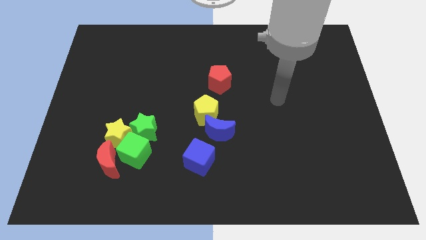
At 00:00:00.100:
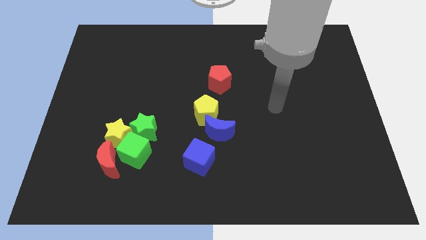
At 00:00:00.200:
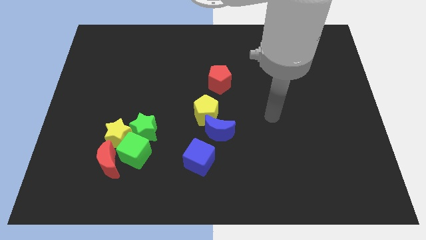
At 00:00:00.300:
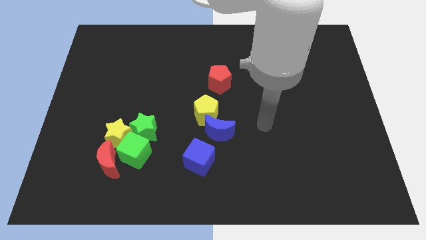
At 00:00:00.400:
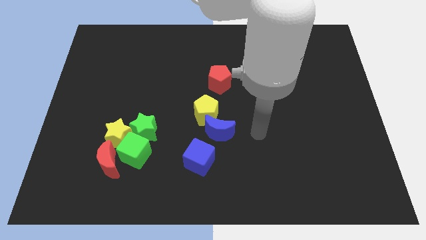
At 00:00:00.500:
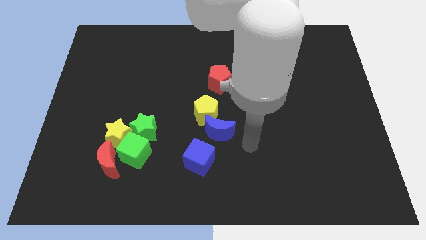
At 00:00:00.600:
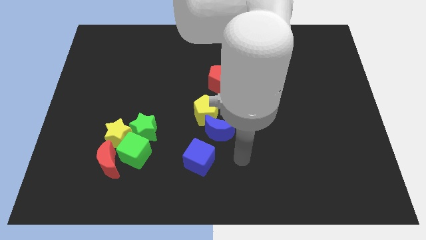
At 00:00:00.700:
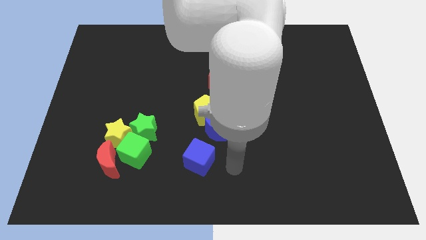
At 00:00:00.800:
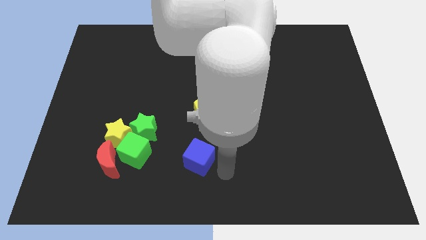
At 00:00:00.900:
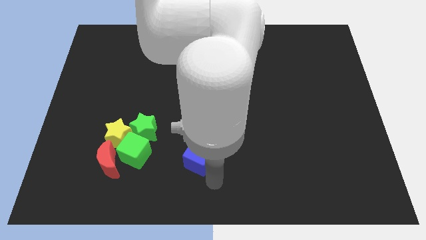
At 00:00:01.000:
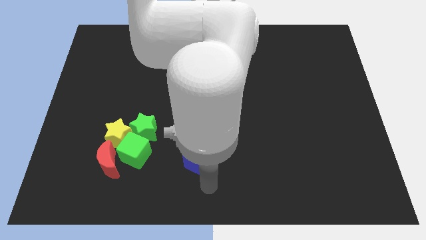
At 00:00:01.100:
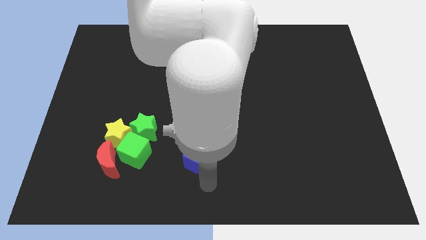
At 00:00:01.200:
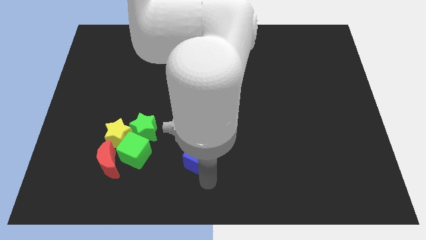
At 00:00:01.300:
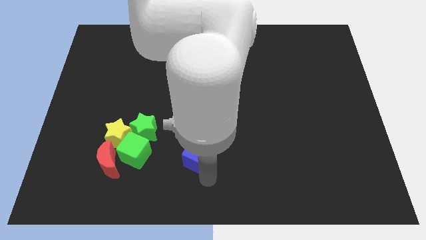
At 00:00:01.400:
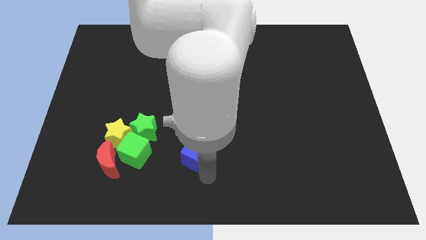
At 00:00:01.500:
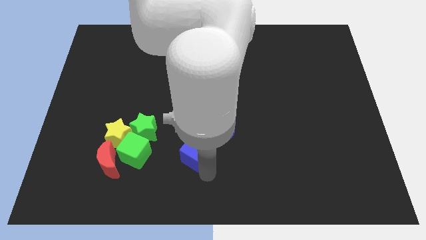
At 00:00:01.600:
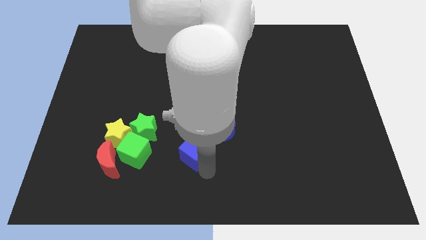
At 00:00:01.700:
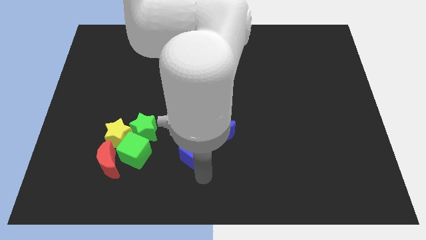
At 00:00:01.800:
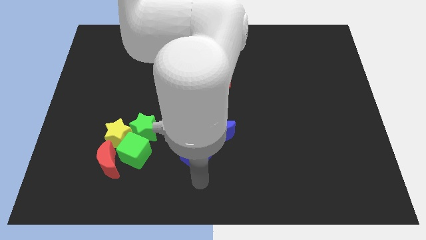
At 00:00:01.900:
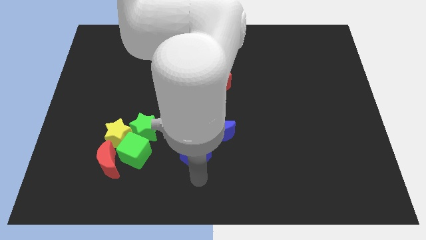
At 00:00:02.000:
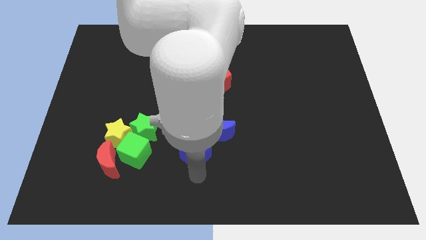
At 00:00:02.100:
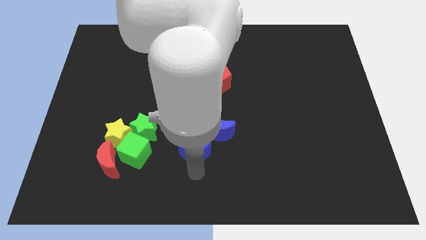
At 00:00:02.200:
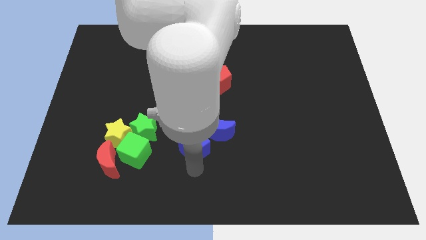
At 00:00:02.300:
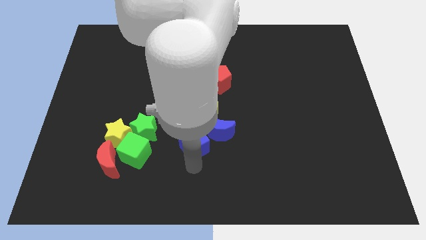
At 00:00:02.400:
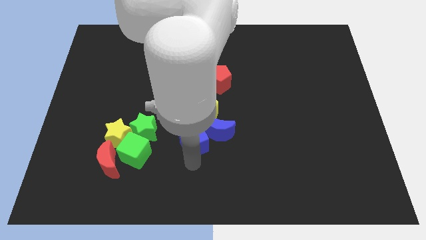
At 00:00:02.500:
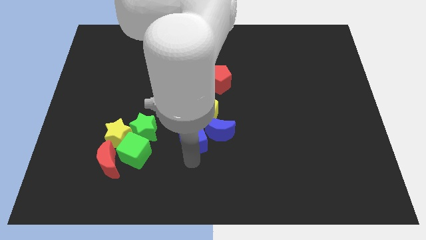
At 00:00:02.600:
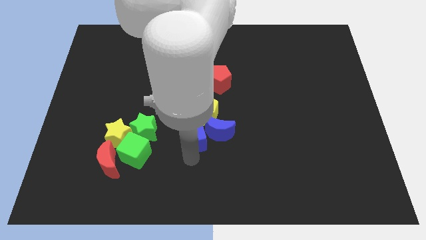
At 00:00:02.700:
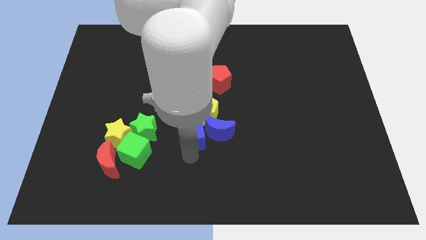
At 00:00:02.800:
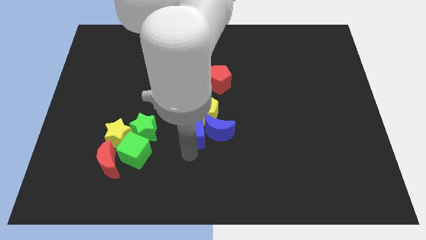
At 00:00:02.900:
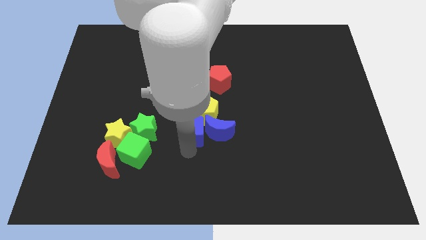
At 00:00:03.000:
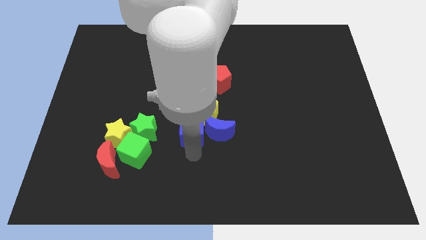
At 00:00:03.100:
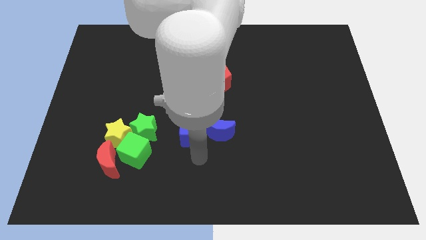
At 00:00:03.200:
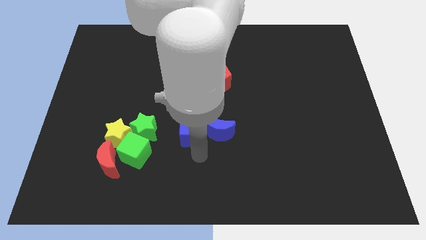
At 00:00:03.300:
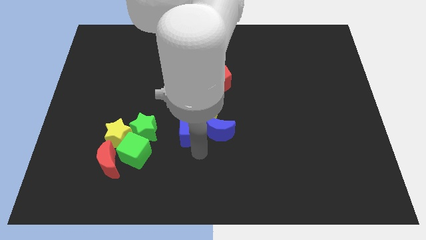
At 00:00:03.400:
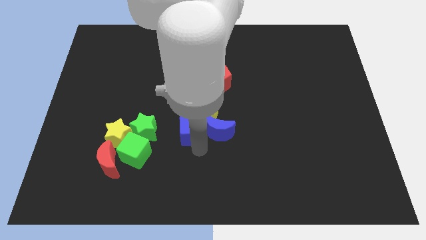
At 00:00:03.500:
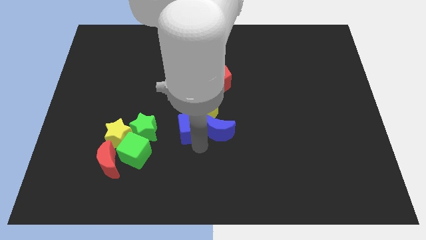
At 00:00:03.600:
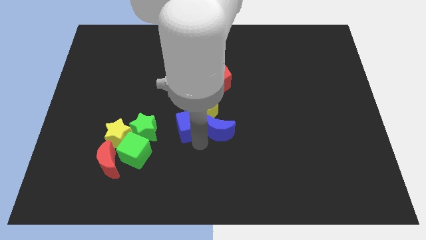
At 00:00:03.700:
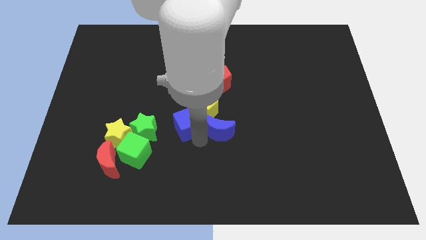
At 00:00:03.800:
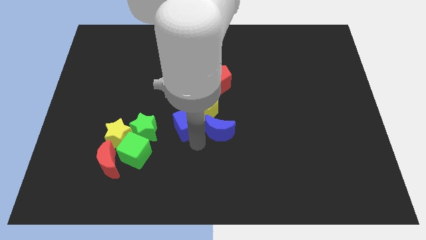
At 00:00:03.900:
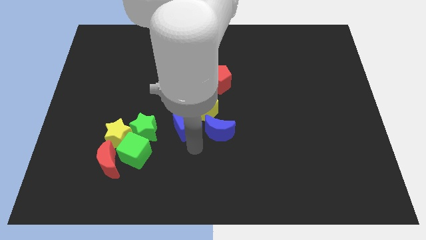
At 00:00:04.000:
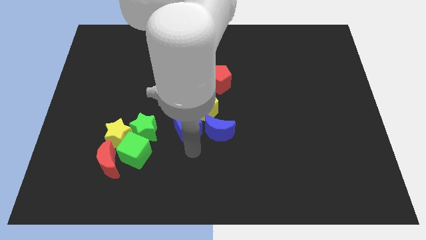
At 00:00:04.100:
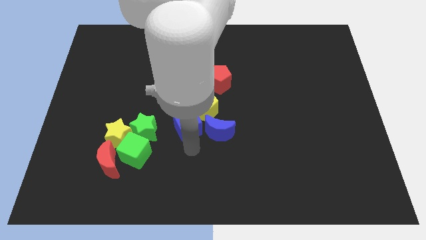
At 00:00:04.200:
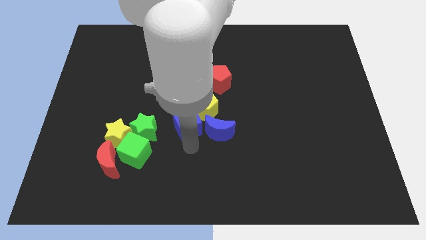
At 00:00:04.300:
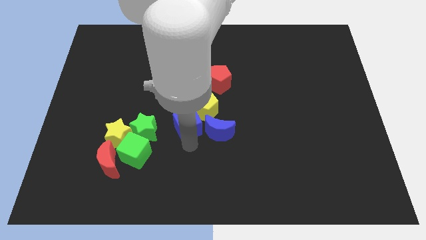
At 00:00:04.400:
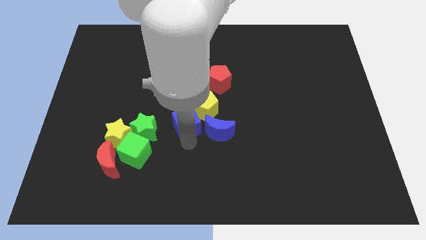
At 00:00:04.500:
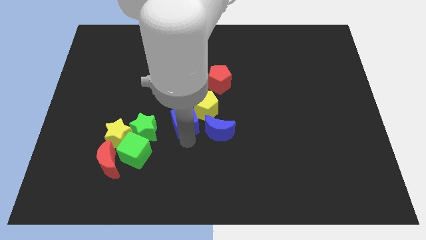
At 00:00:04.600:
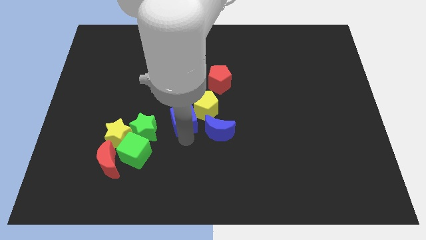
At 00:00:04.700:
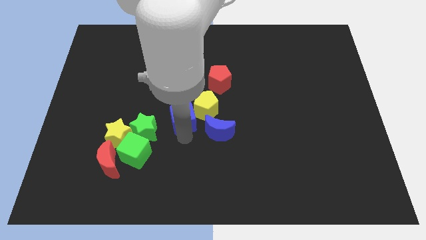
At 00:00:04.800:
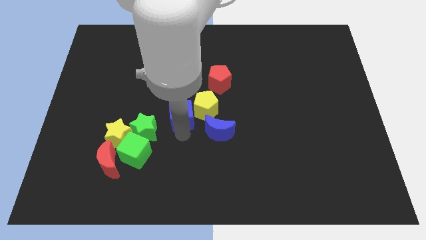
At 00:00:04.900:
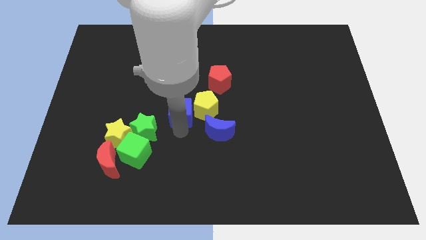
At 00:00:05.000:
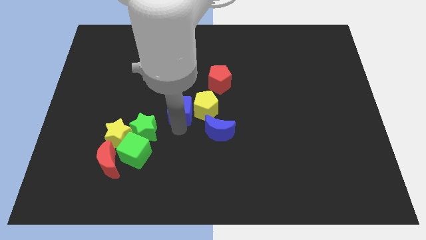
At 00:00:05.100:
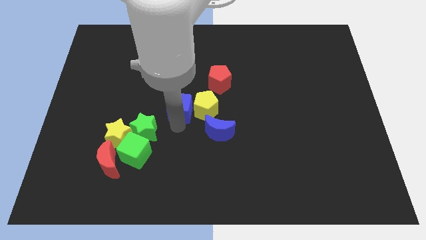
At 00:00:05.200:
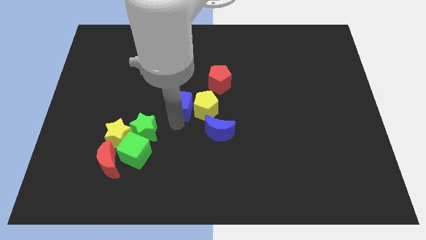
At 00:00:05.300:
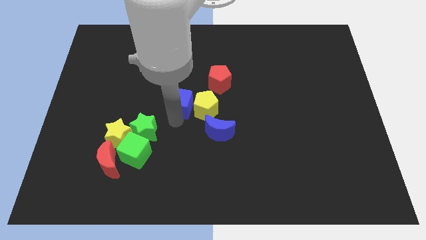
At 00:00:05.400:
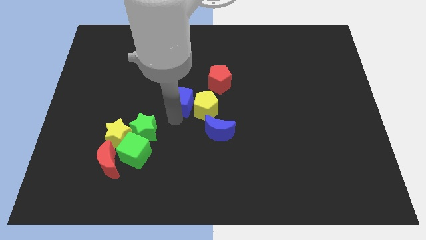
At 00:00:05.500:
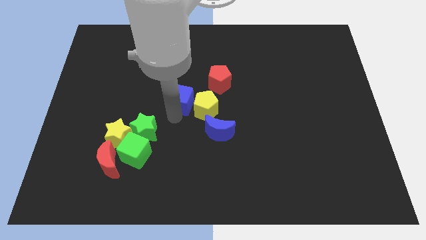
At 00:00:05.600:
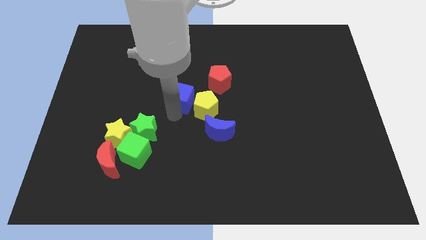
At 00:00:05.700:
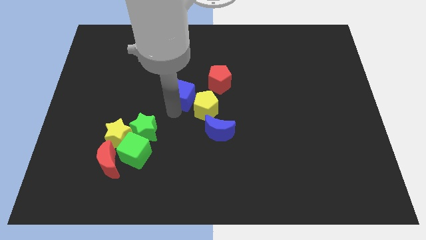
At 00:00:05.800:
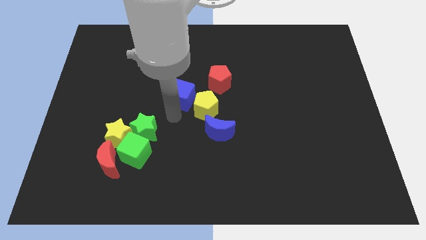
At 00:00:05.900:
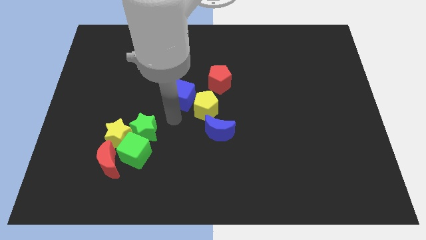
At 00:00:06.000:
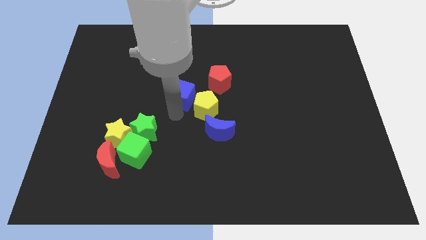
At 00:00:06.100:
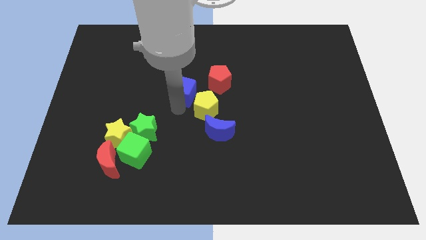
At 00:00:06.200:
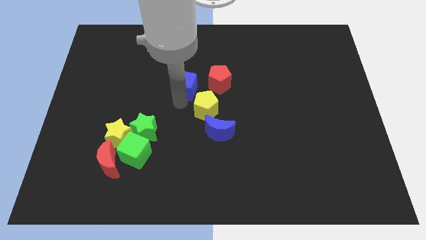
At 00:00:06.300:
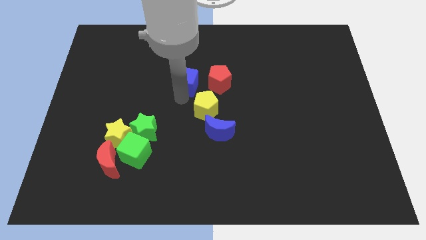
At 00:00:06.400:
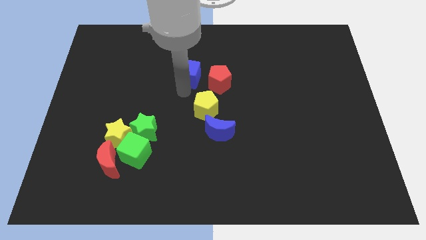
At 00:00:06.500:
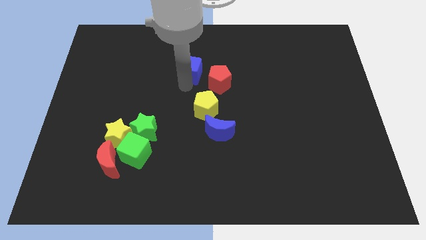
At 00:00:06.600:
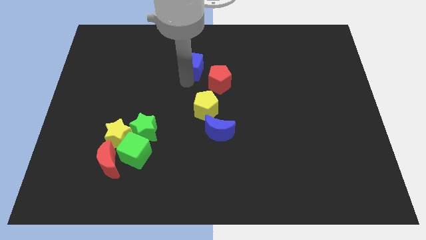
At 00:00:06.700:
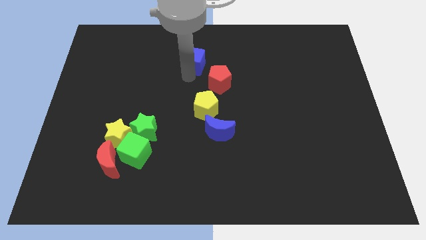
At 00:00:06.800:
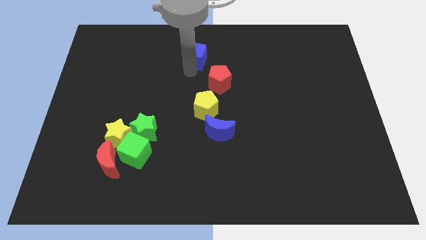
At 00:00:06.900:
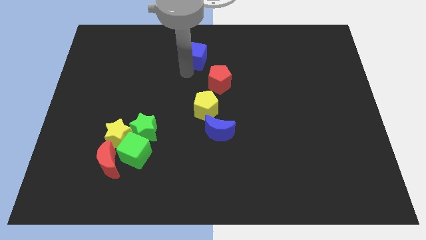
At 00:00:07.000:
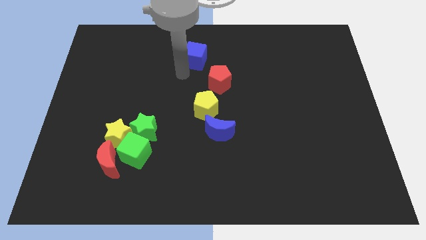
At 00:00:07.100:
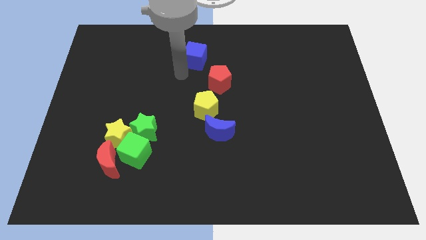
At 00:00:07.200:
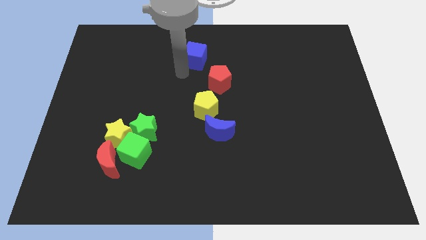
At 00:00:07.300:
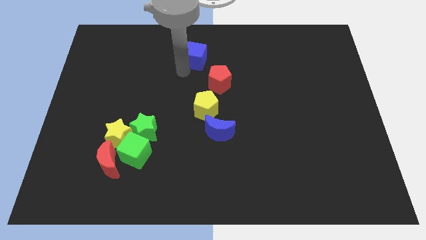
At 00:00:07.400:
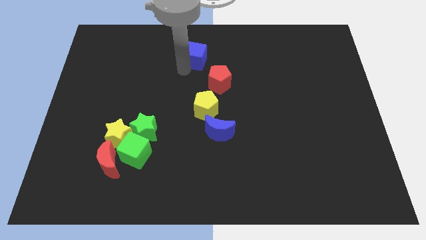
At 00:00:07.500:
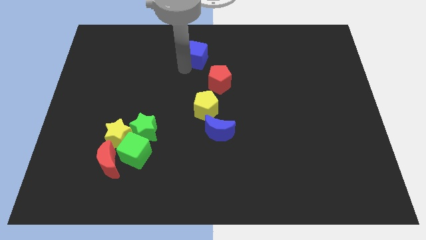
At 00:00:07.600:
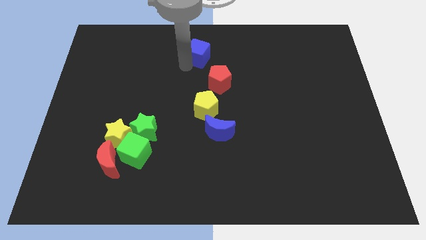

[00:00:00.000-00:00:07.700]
slide the blue cube to the top side
